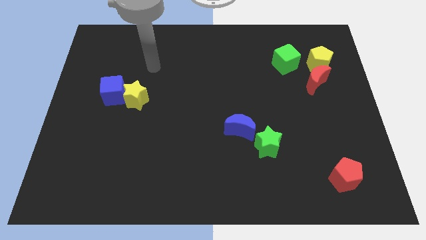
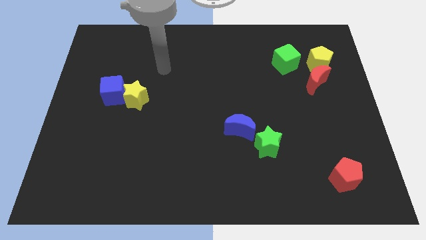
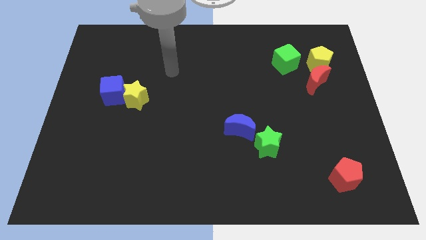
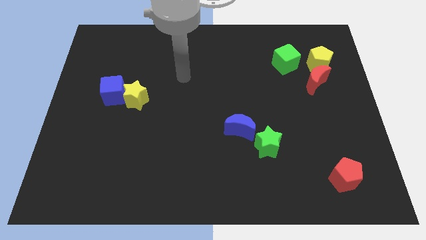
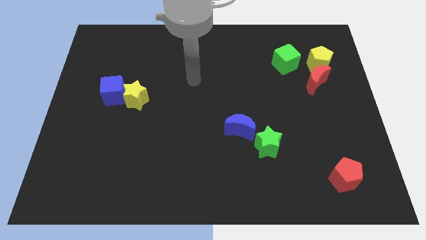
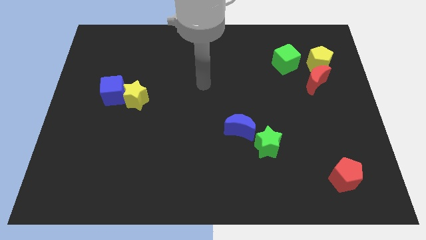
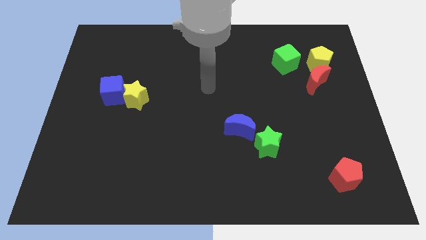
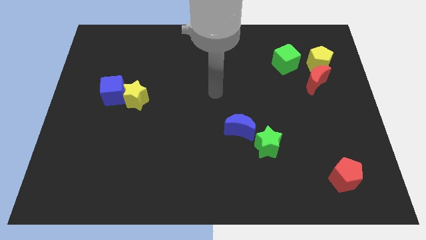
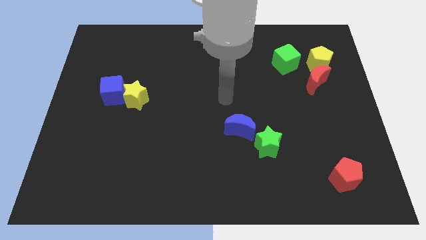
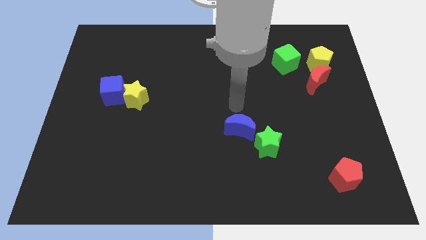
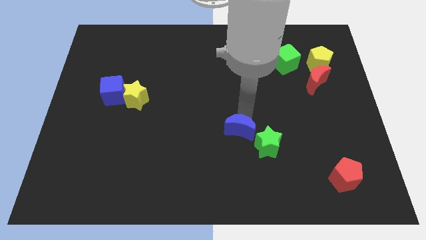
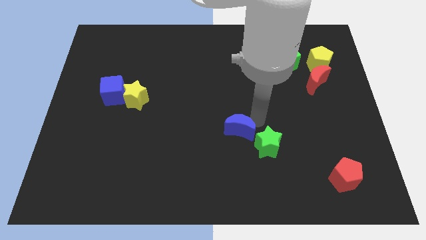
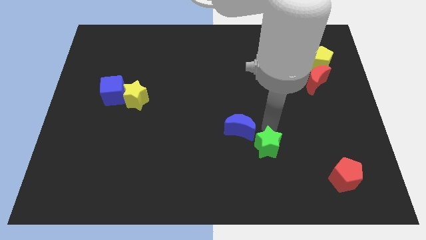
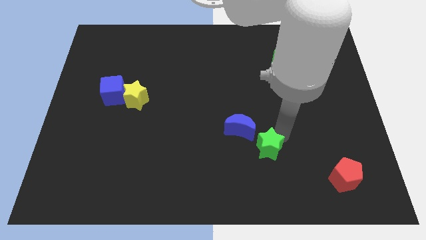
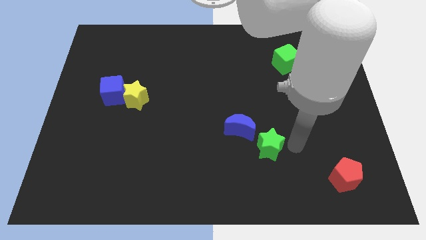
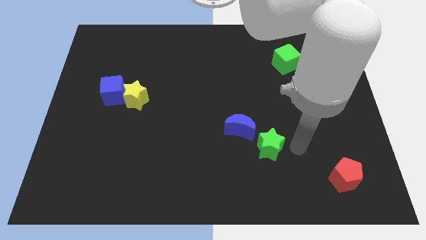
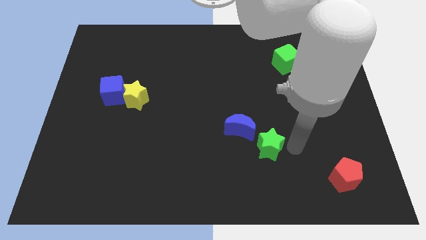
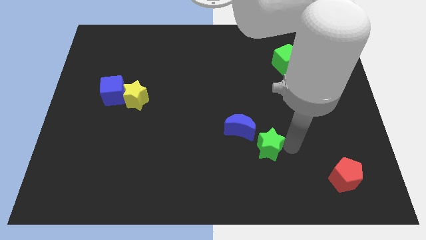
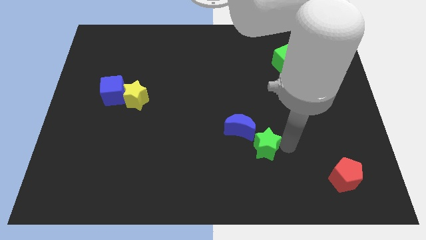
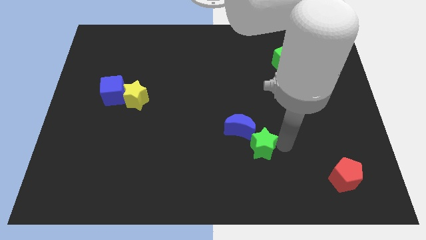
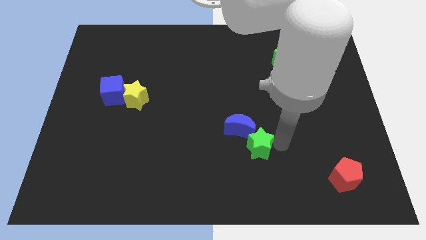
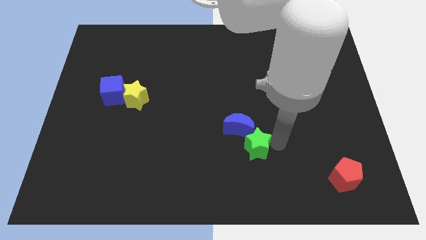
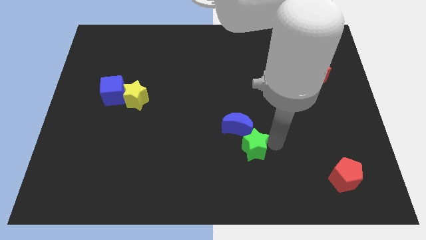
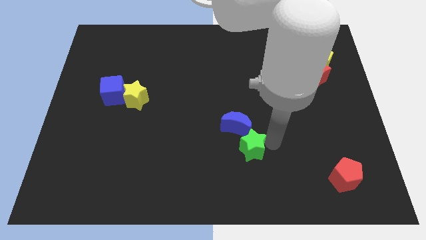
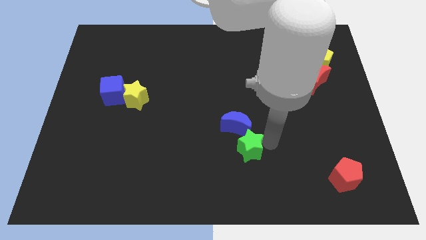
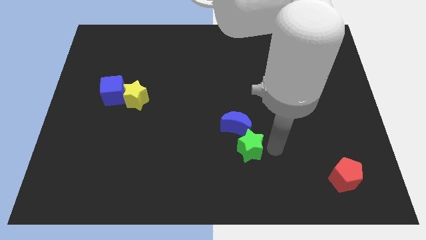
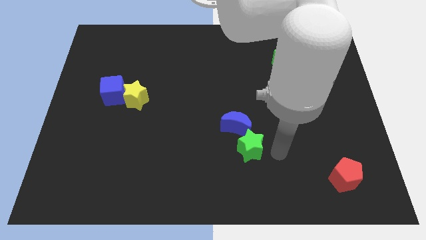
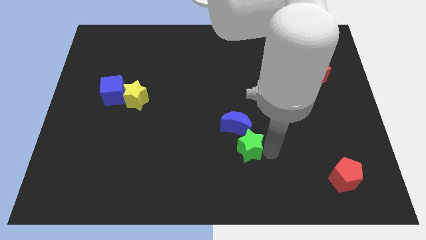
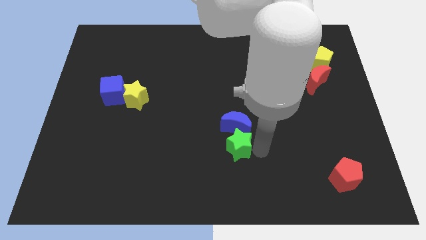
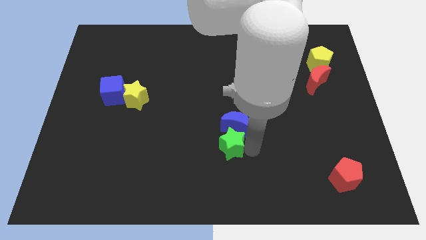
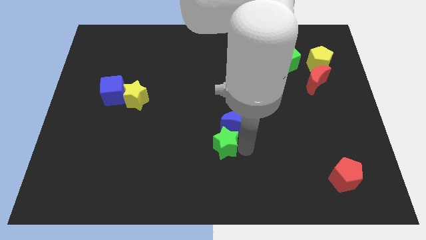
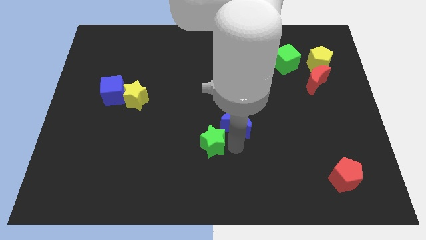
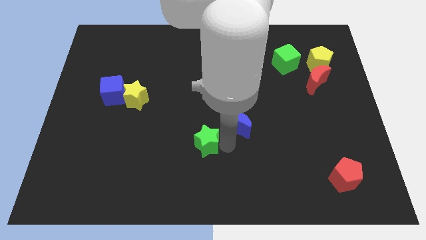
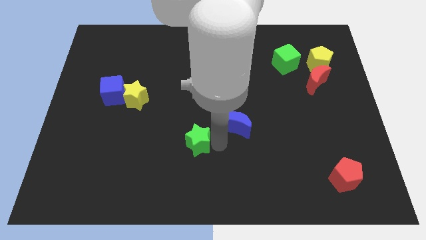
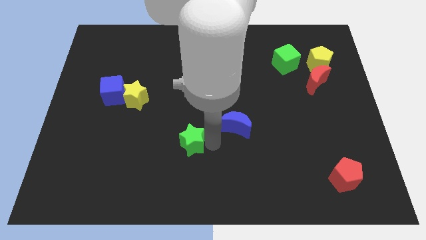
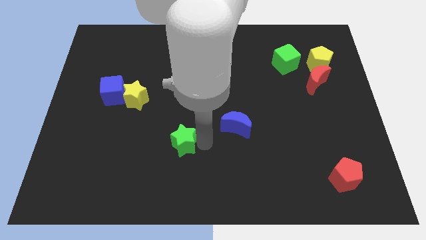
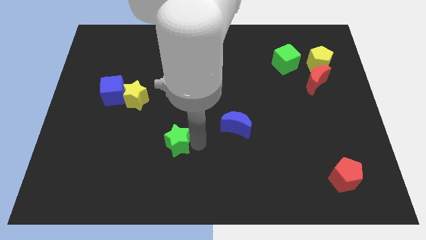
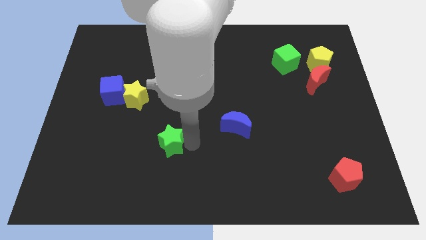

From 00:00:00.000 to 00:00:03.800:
slide the green star to the left

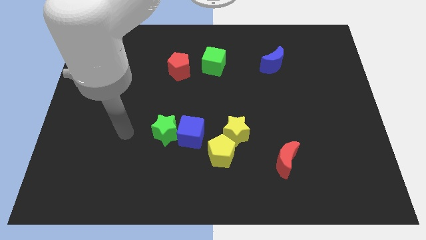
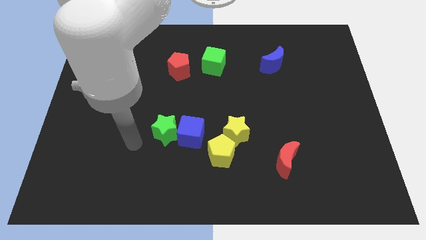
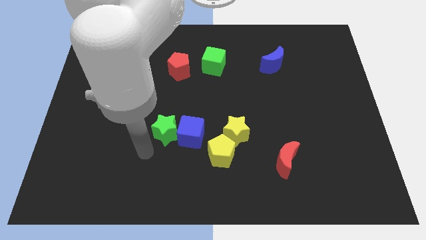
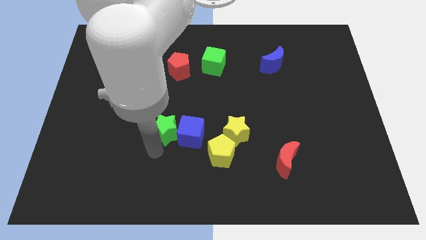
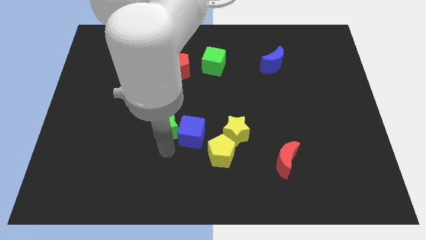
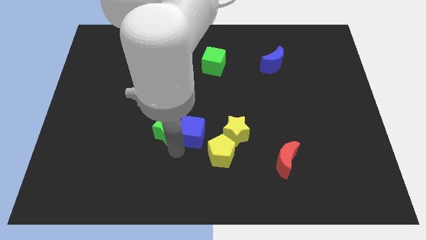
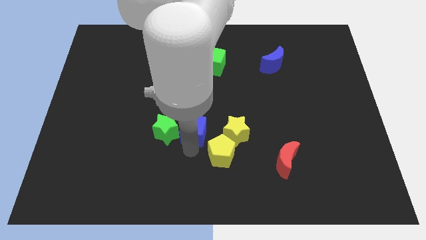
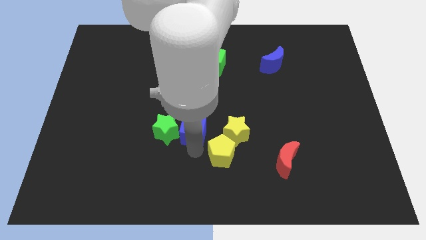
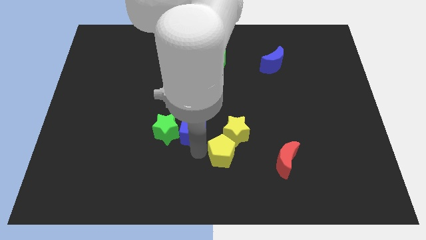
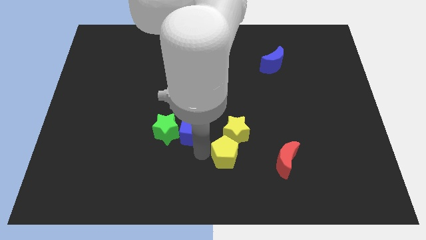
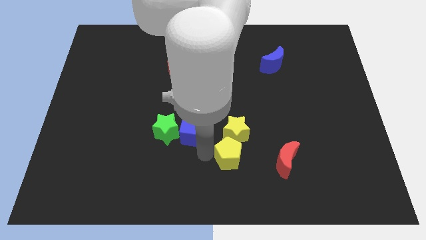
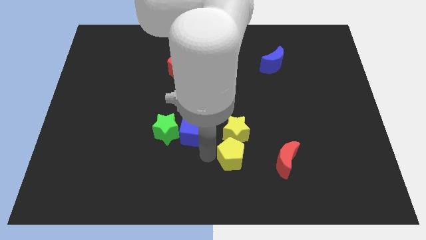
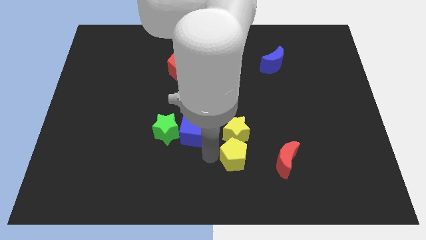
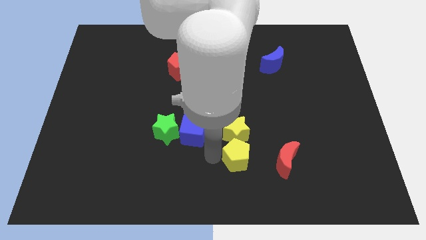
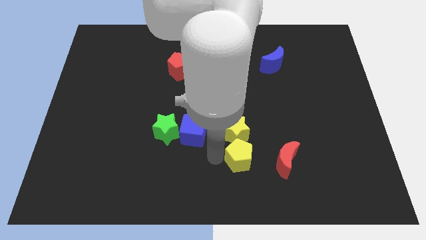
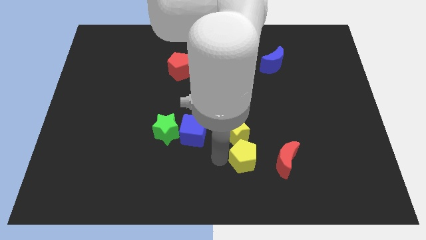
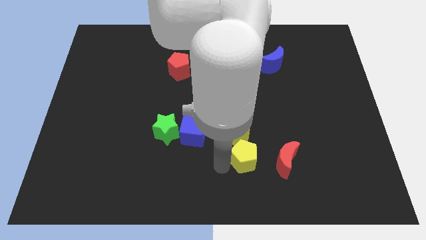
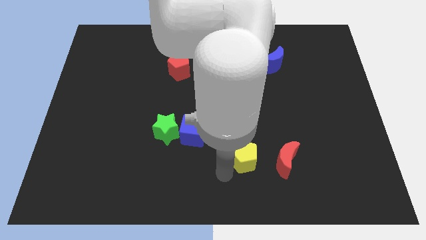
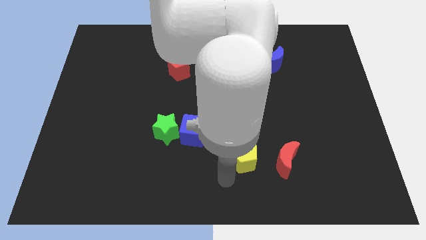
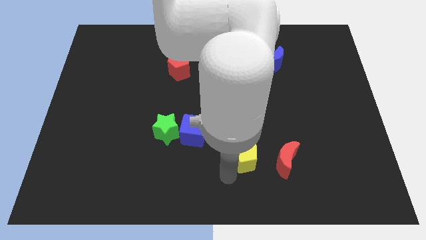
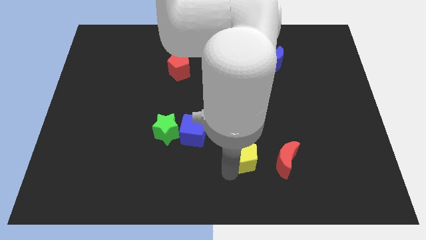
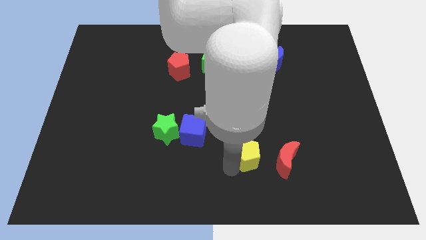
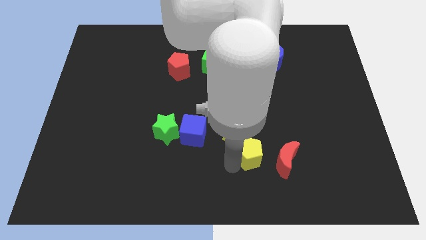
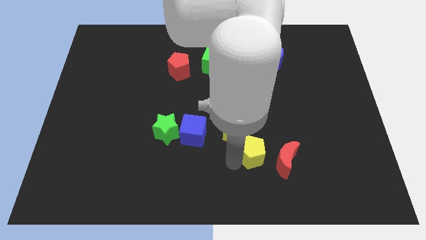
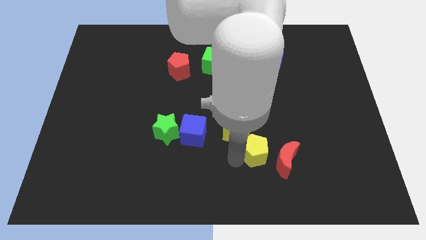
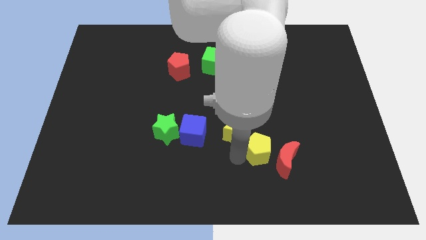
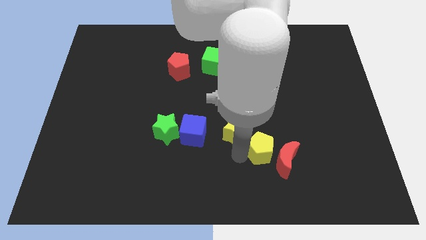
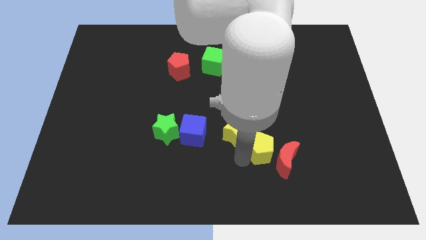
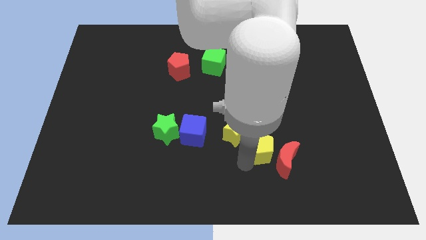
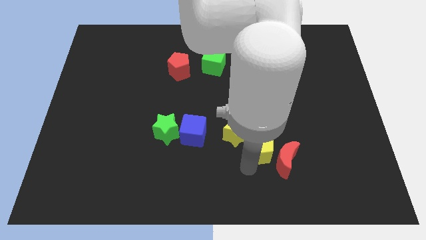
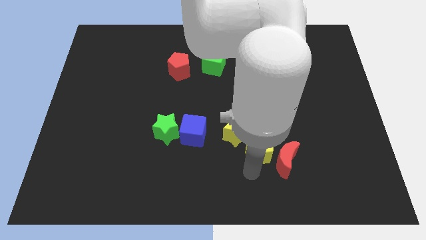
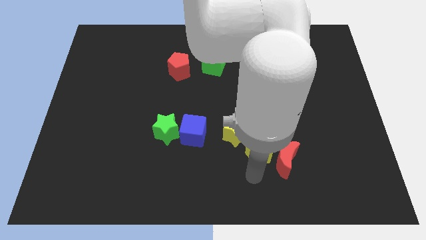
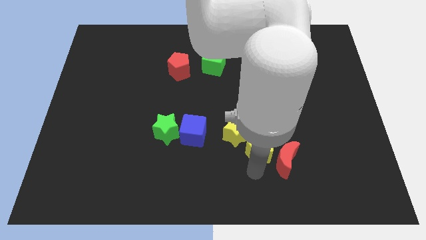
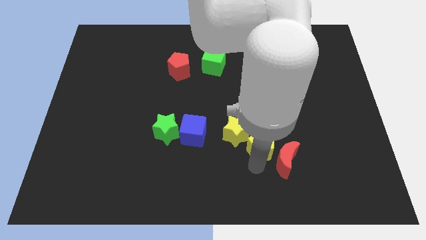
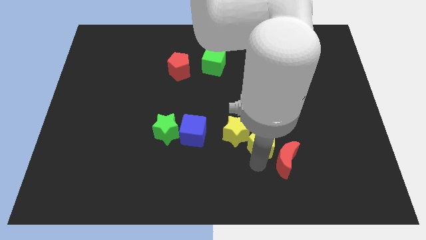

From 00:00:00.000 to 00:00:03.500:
move the yellow pentagon up and then to the right somewhat

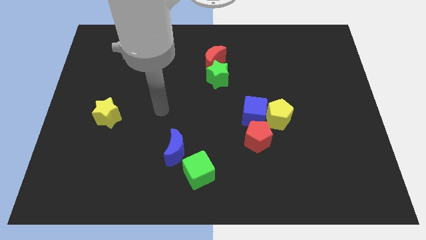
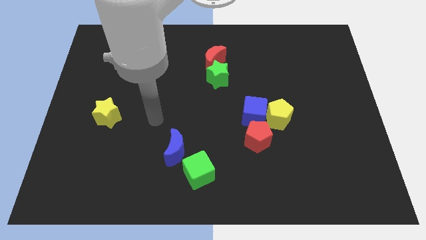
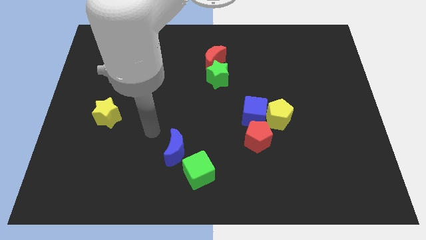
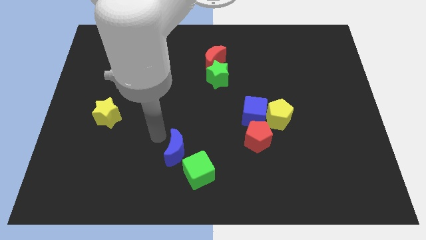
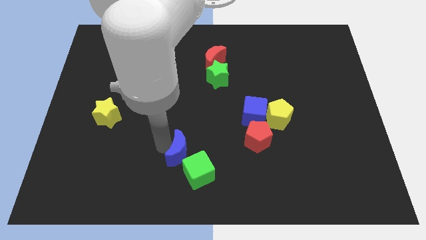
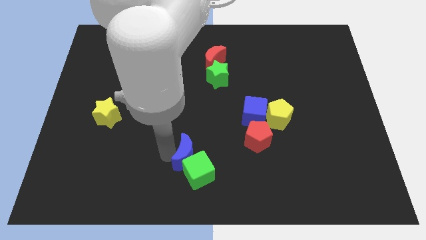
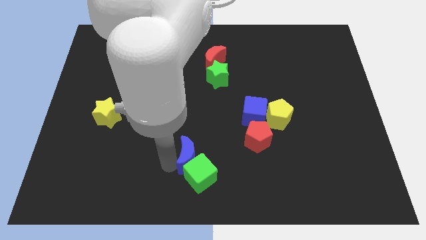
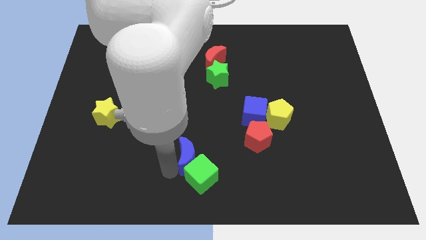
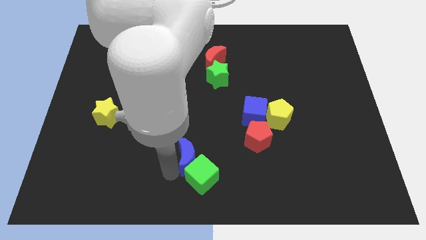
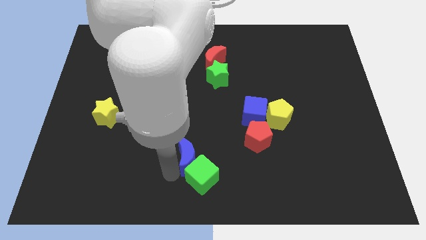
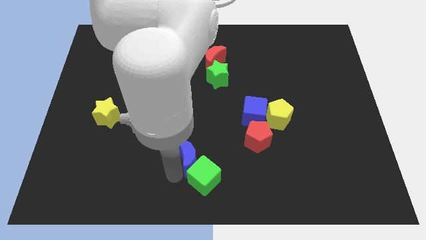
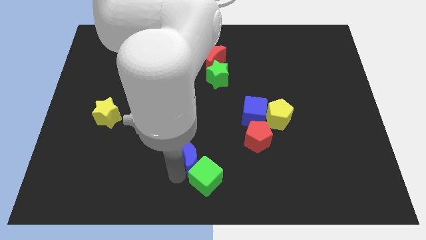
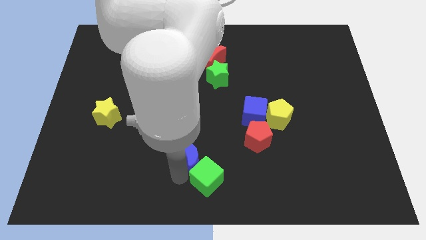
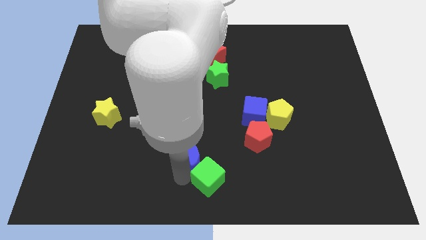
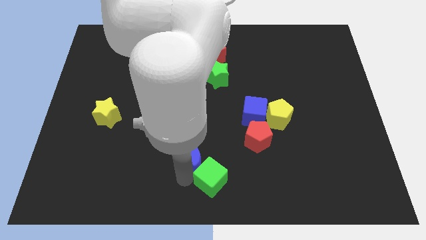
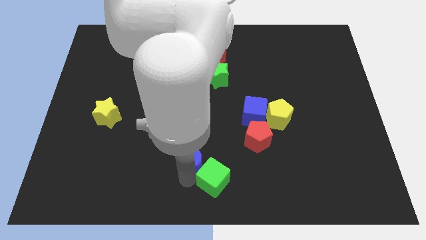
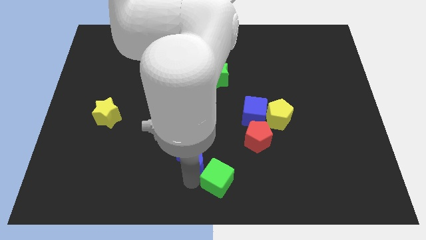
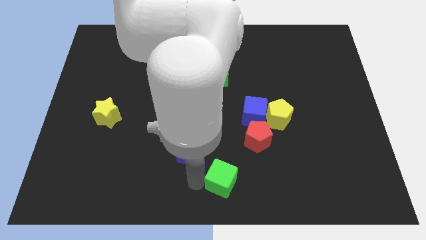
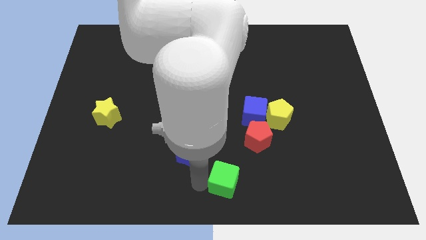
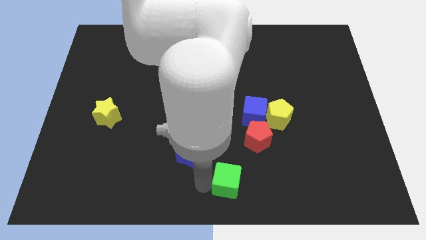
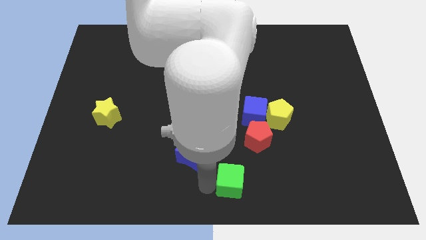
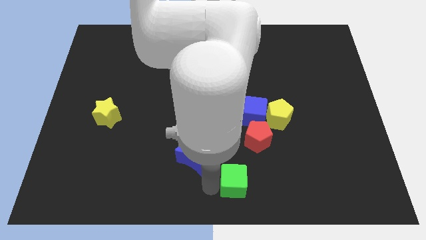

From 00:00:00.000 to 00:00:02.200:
slide the green cube a little to the right
